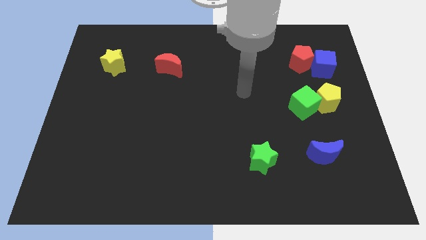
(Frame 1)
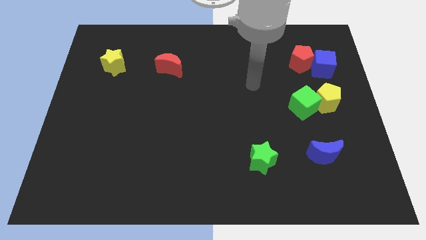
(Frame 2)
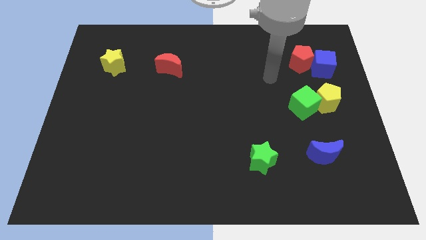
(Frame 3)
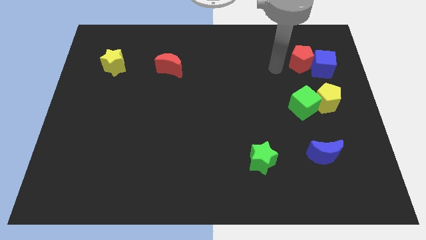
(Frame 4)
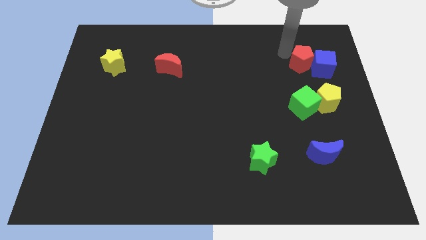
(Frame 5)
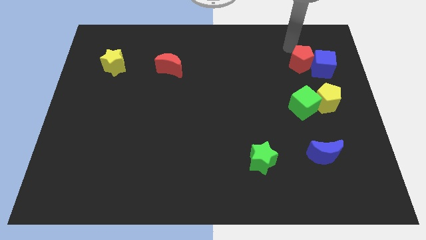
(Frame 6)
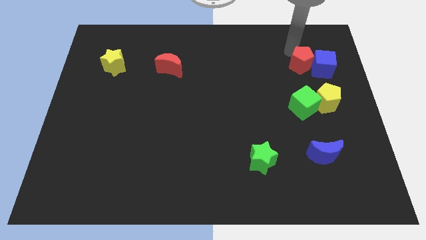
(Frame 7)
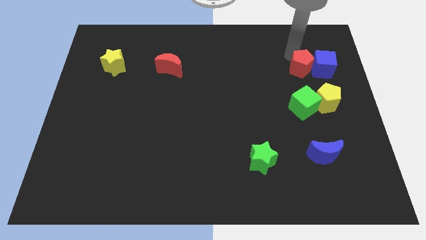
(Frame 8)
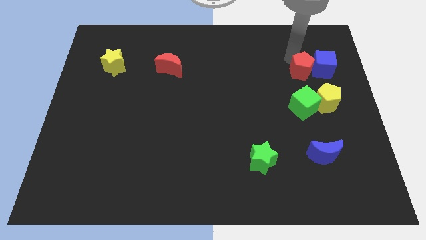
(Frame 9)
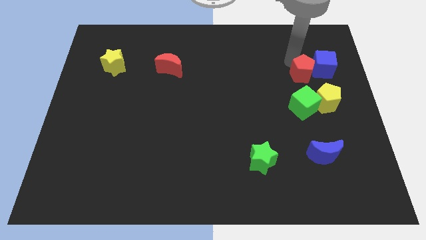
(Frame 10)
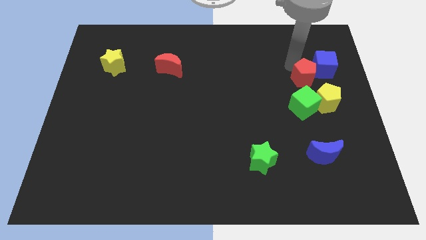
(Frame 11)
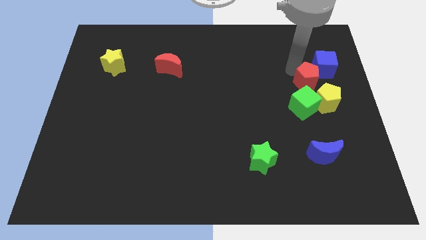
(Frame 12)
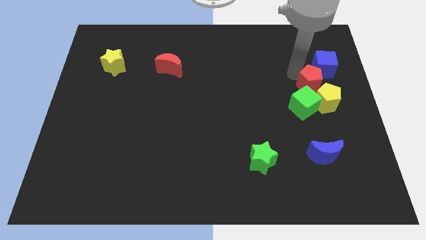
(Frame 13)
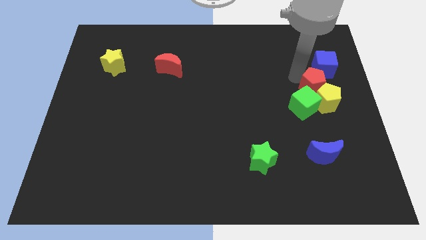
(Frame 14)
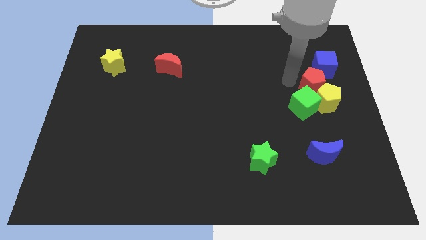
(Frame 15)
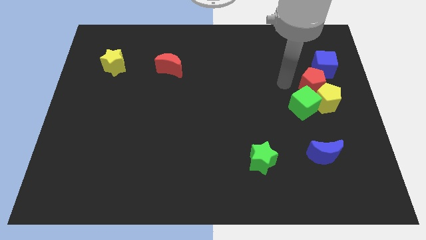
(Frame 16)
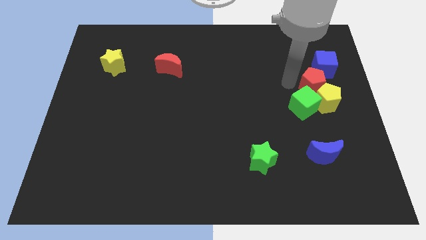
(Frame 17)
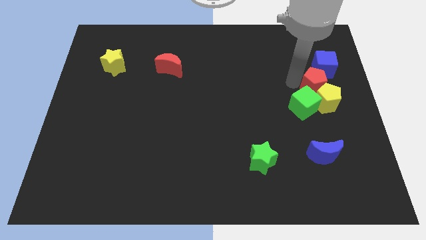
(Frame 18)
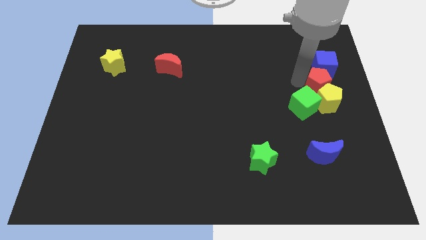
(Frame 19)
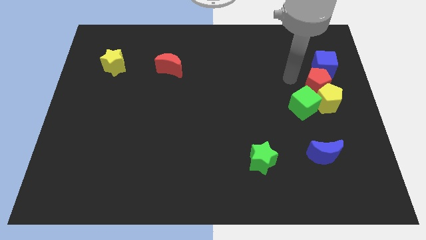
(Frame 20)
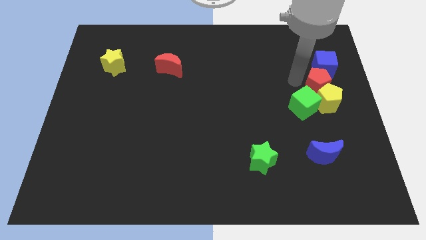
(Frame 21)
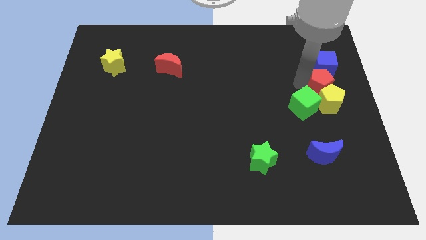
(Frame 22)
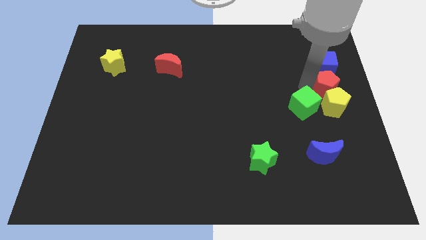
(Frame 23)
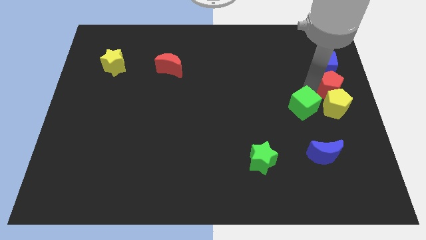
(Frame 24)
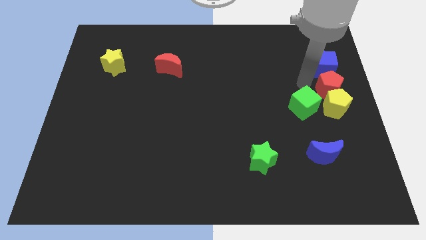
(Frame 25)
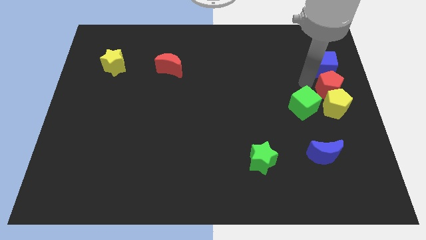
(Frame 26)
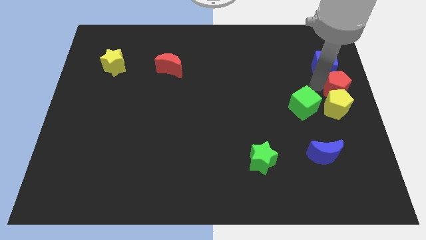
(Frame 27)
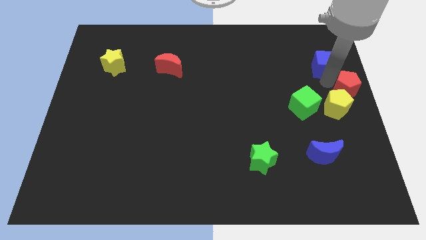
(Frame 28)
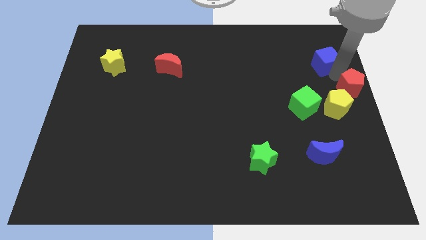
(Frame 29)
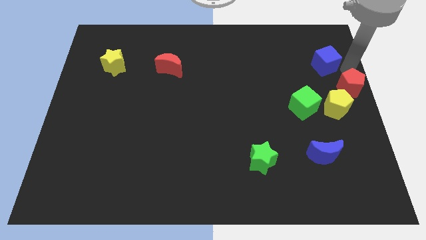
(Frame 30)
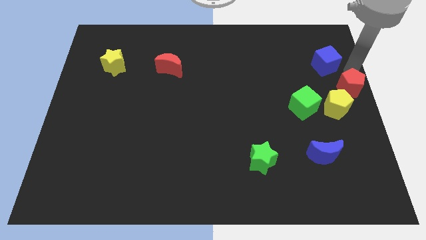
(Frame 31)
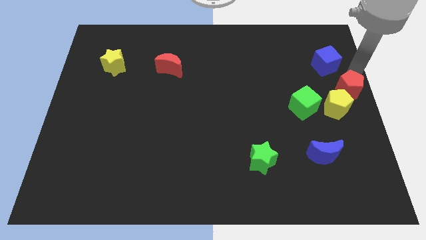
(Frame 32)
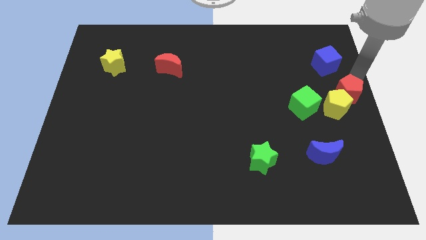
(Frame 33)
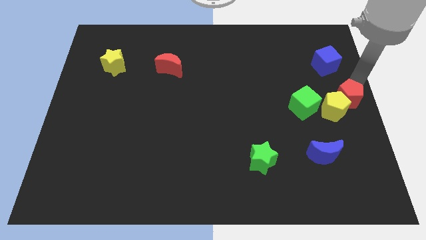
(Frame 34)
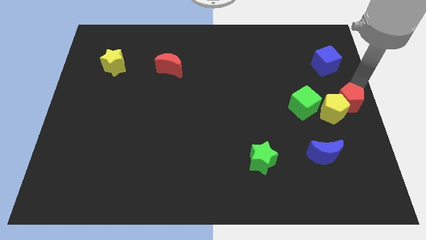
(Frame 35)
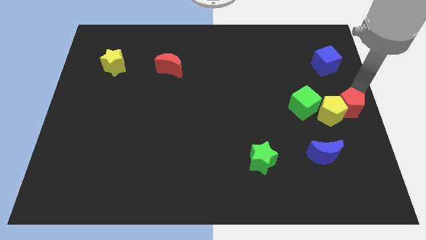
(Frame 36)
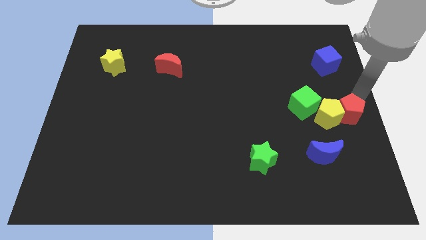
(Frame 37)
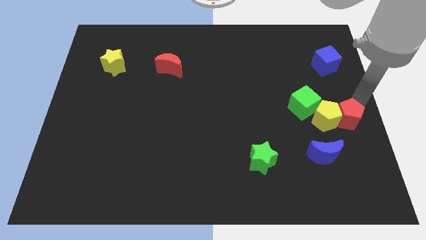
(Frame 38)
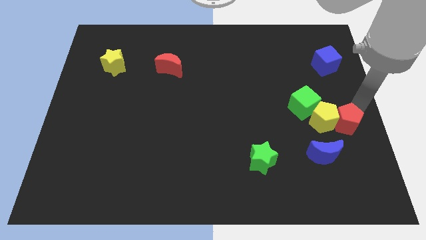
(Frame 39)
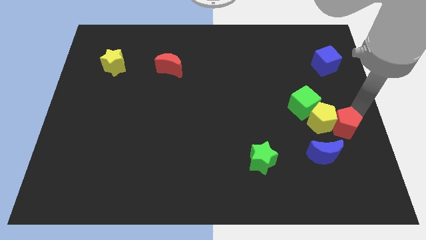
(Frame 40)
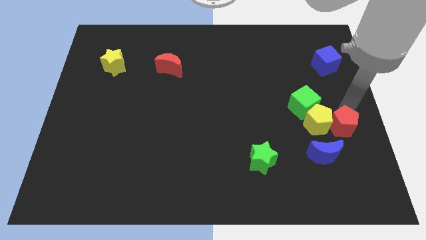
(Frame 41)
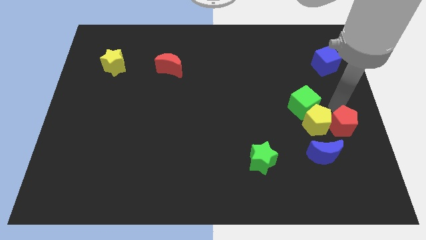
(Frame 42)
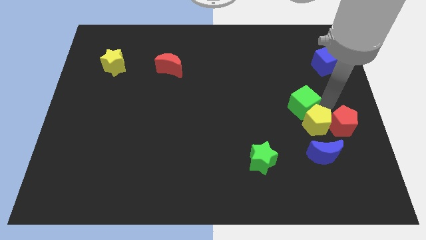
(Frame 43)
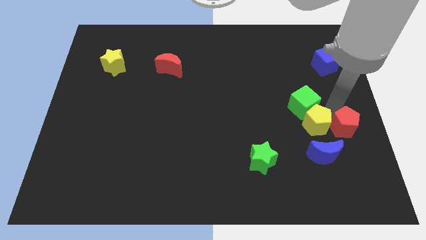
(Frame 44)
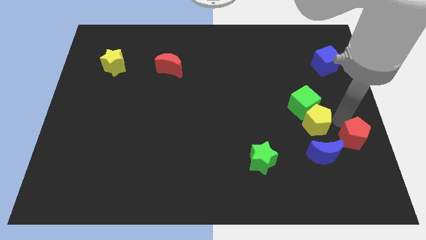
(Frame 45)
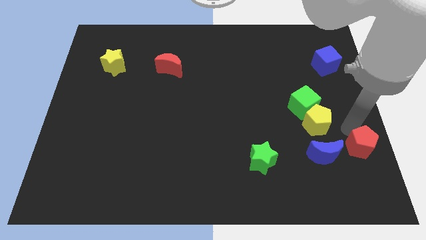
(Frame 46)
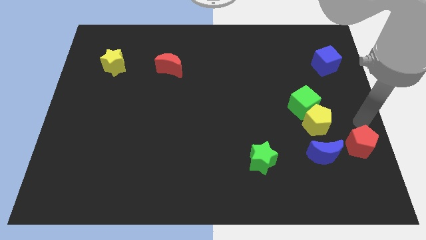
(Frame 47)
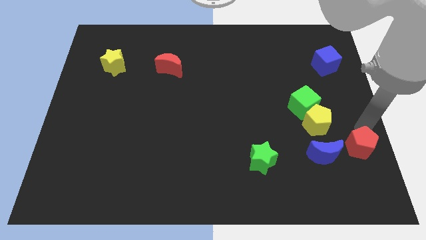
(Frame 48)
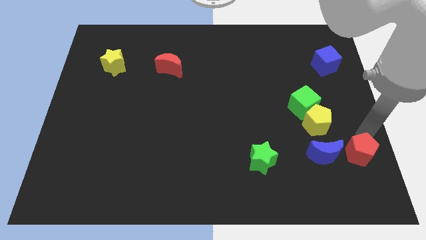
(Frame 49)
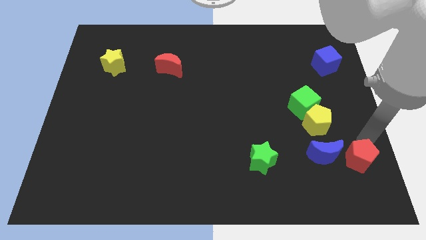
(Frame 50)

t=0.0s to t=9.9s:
move the red pentagon diagonally down and to the right of the blue moon

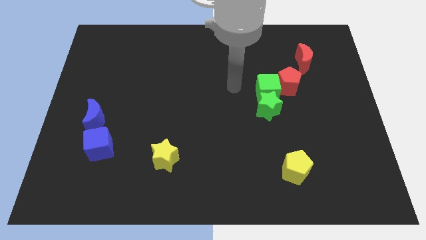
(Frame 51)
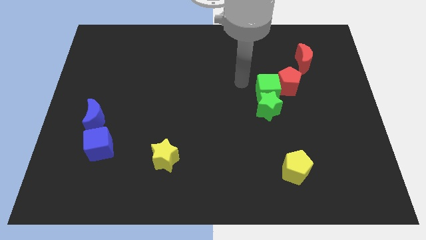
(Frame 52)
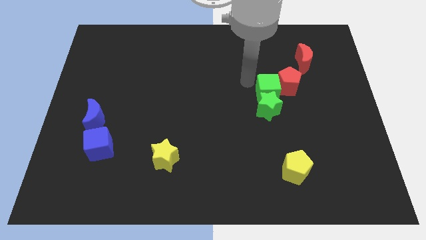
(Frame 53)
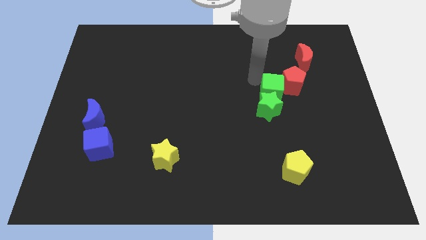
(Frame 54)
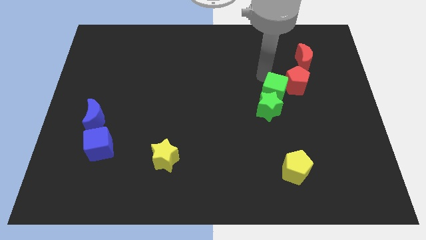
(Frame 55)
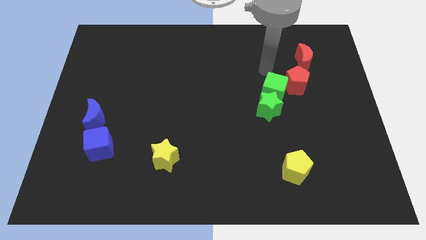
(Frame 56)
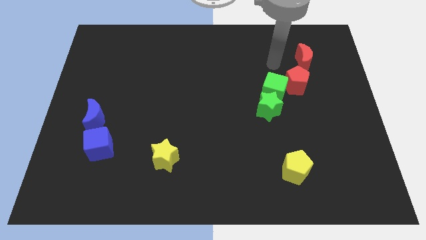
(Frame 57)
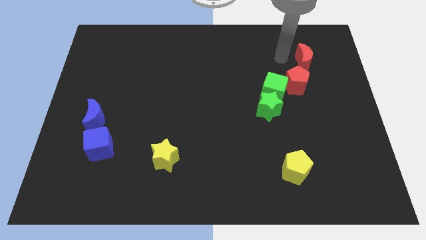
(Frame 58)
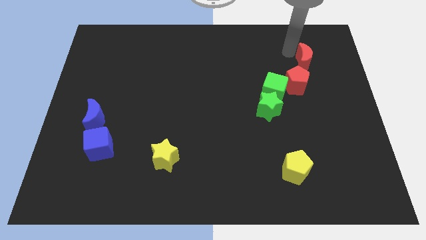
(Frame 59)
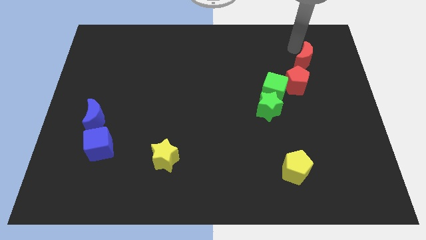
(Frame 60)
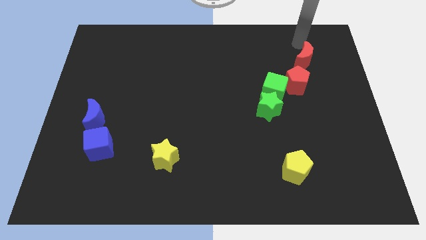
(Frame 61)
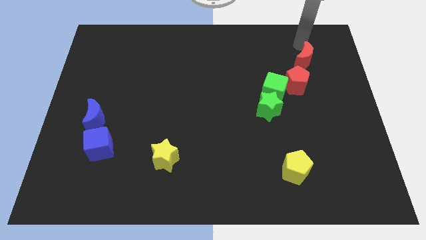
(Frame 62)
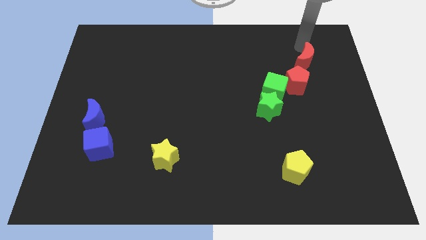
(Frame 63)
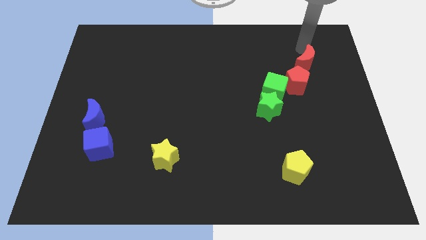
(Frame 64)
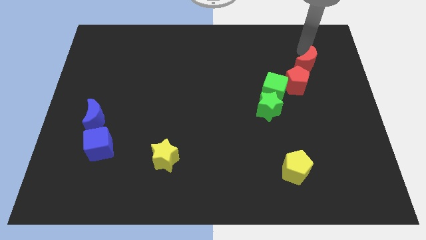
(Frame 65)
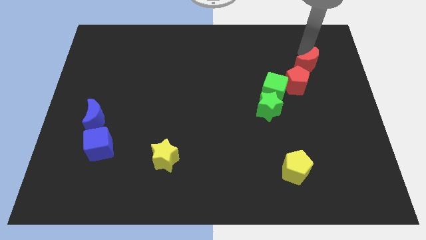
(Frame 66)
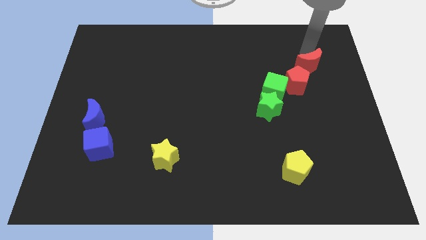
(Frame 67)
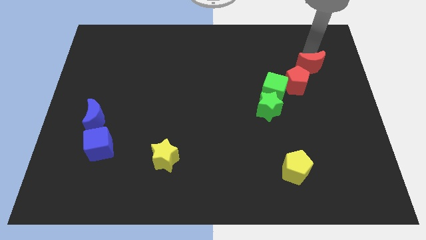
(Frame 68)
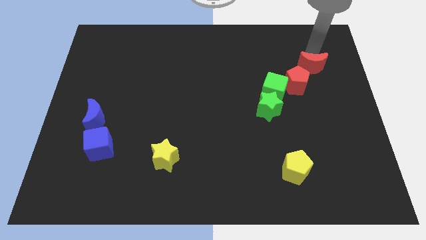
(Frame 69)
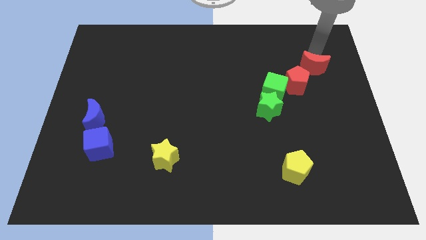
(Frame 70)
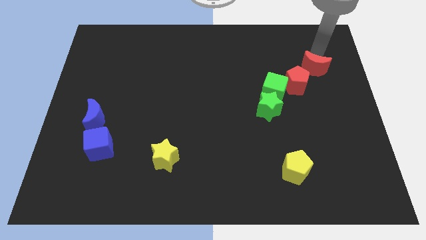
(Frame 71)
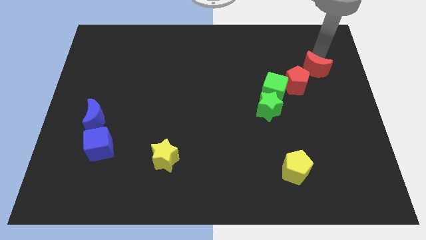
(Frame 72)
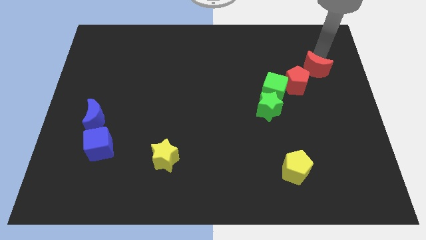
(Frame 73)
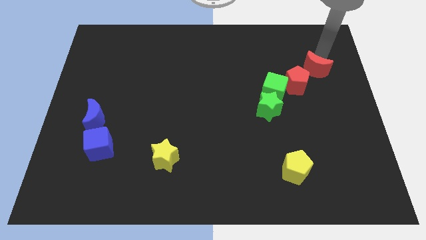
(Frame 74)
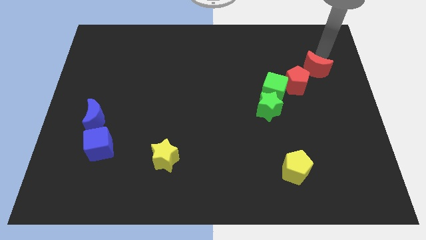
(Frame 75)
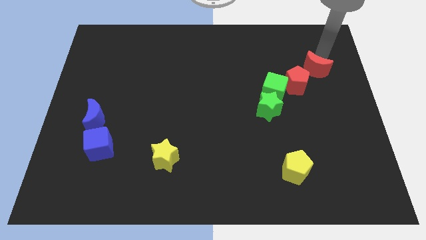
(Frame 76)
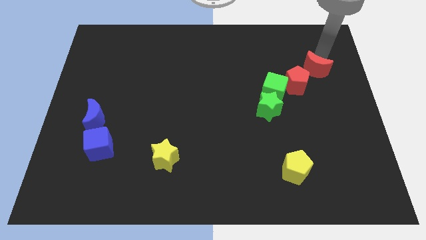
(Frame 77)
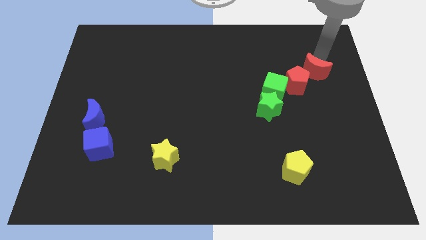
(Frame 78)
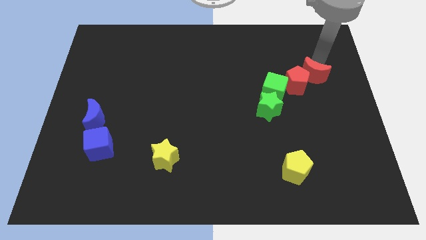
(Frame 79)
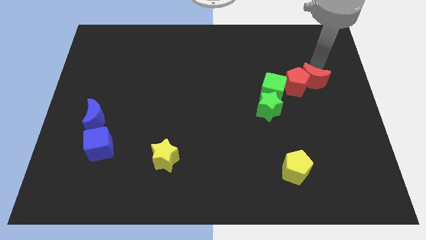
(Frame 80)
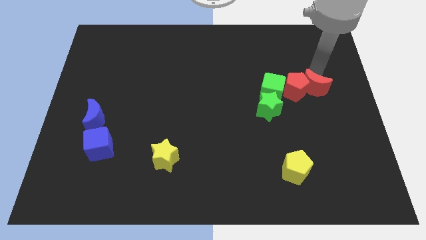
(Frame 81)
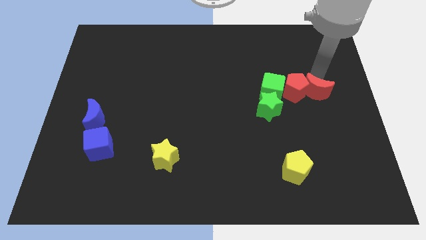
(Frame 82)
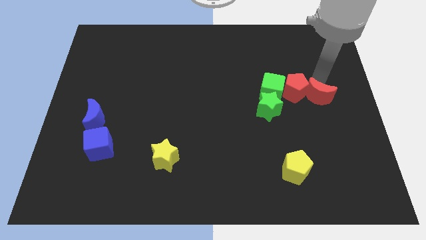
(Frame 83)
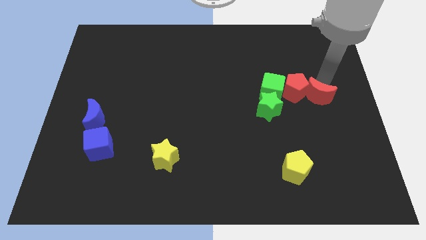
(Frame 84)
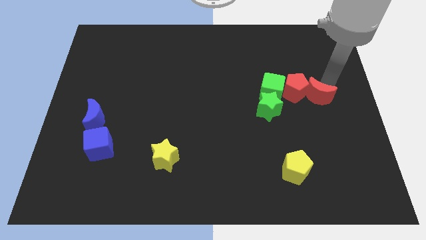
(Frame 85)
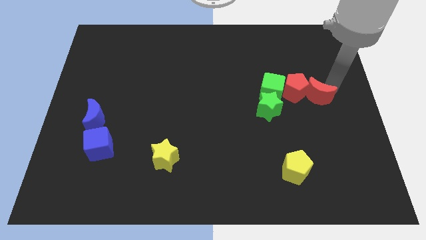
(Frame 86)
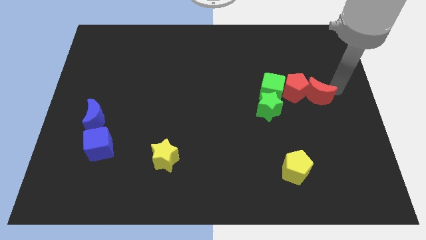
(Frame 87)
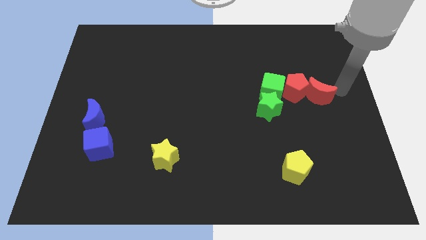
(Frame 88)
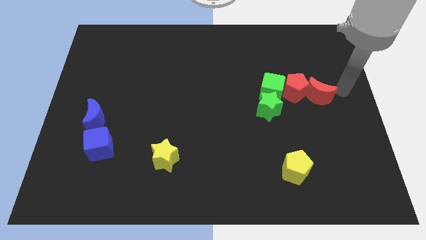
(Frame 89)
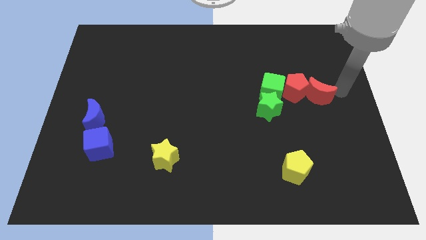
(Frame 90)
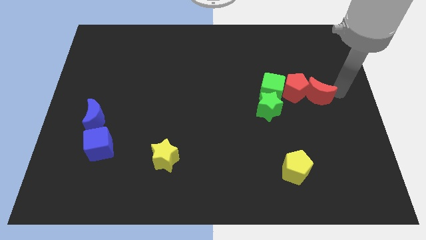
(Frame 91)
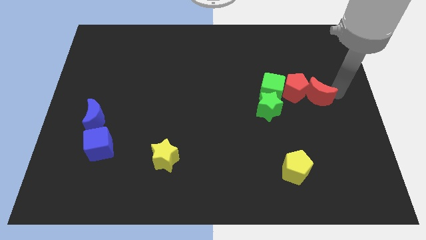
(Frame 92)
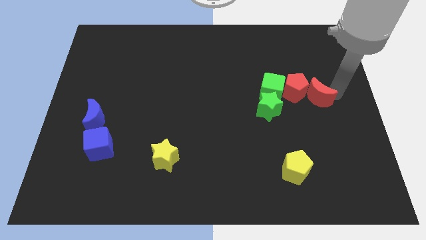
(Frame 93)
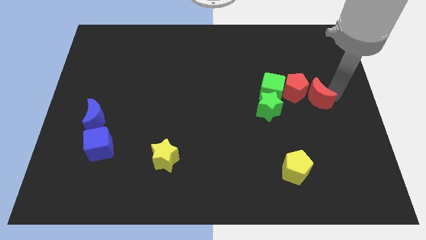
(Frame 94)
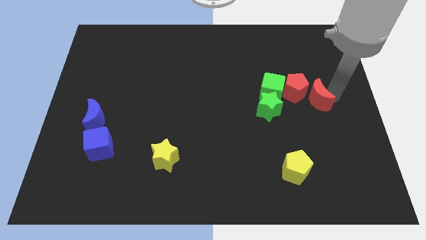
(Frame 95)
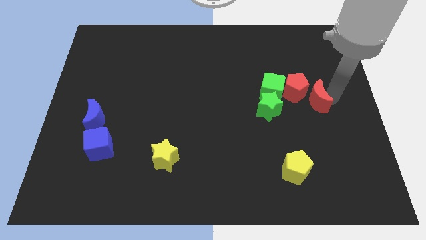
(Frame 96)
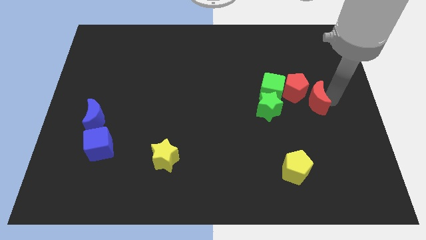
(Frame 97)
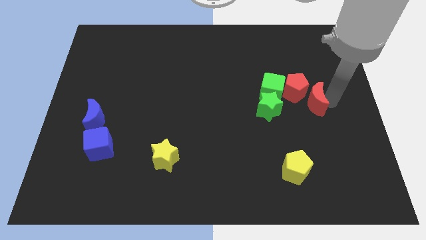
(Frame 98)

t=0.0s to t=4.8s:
move the red moon to the bottom side of the red pentagon
